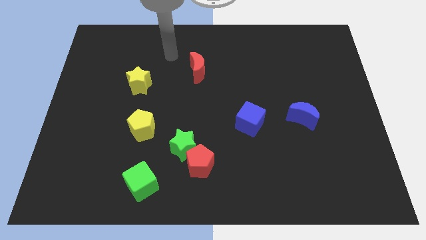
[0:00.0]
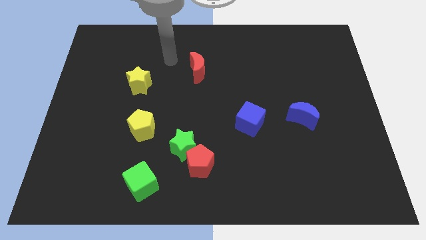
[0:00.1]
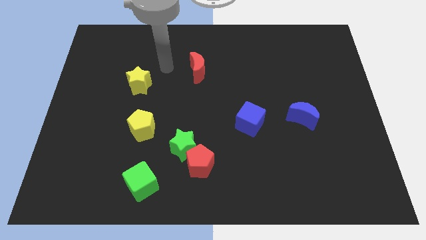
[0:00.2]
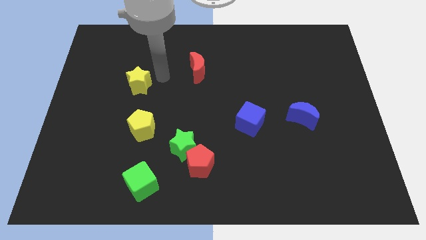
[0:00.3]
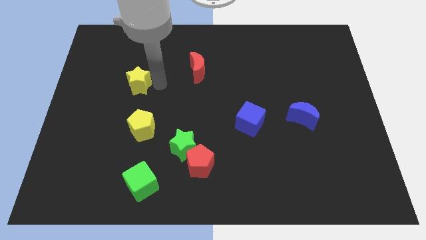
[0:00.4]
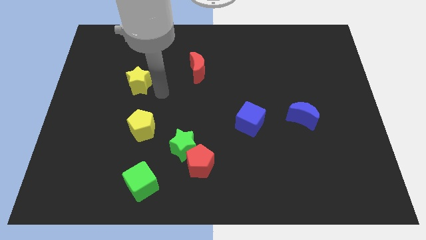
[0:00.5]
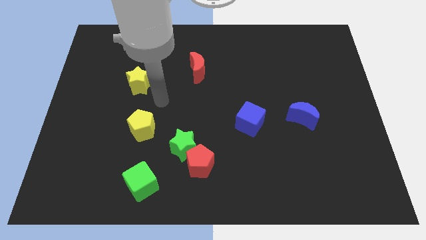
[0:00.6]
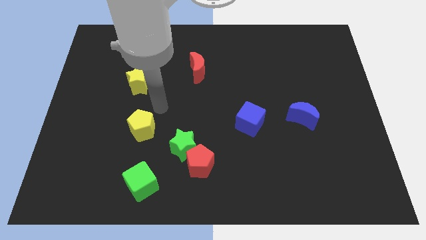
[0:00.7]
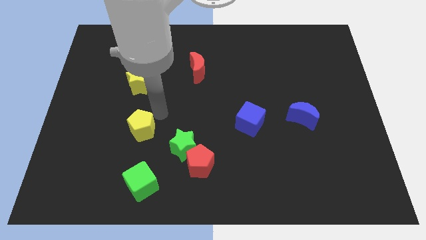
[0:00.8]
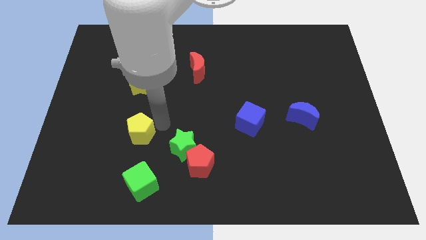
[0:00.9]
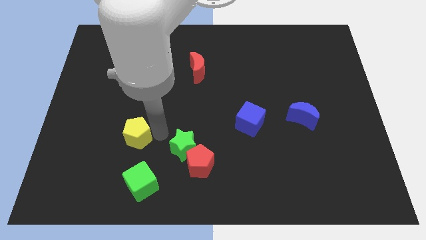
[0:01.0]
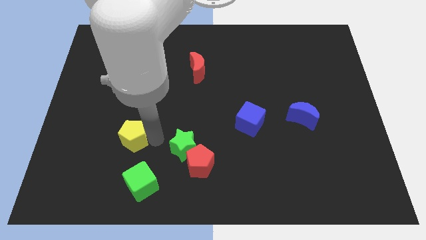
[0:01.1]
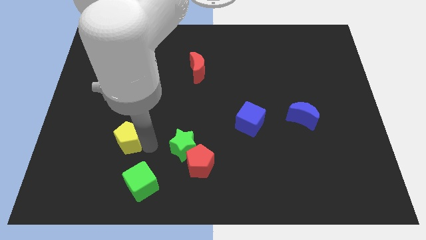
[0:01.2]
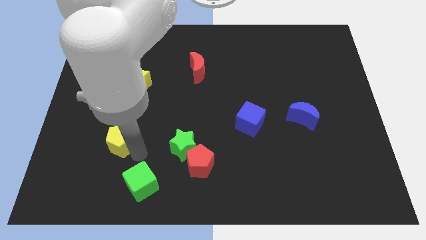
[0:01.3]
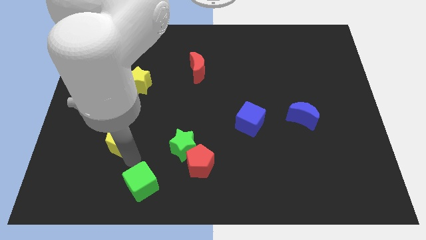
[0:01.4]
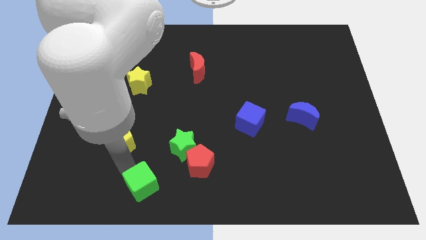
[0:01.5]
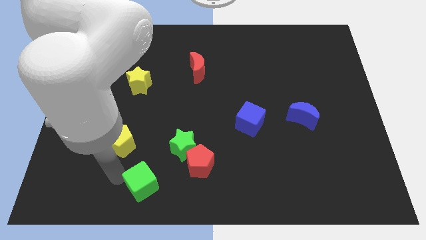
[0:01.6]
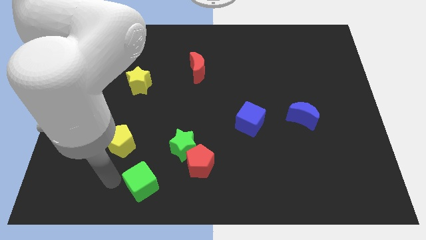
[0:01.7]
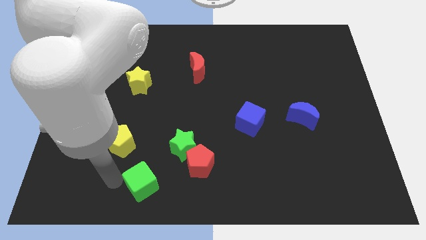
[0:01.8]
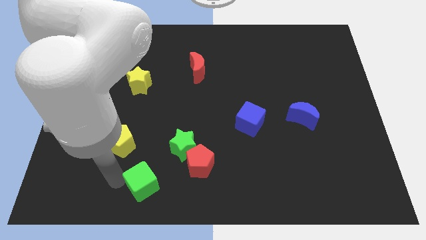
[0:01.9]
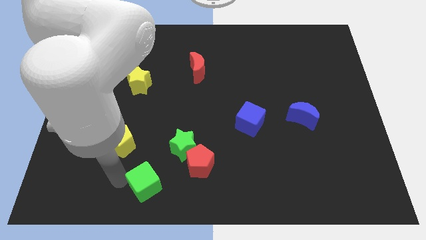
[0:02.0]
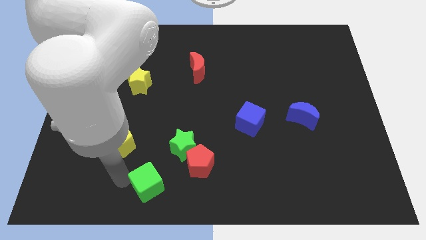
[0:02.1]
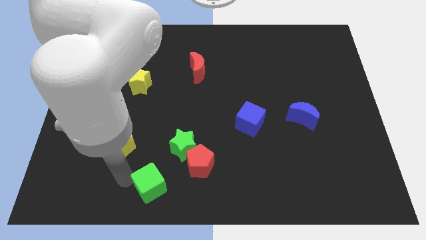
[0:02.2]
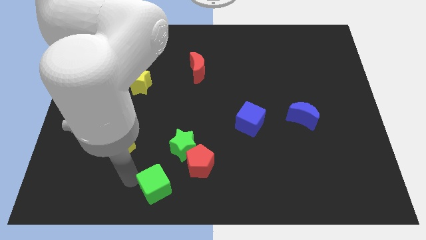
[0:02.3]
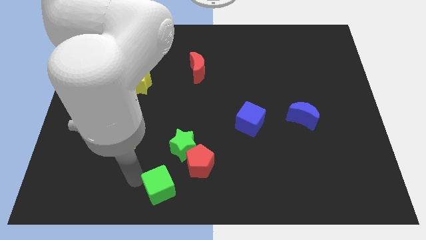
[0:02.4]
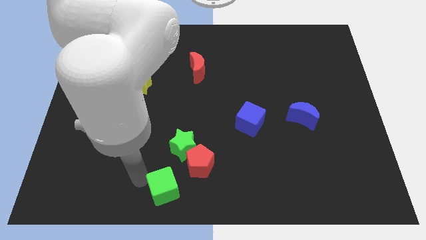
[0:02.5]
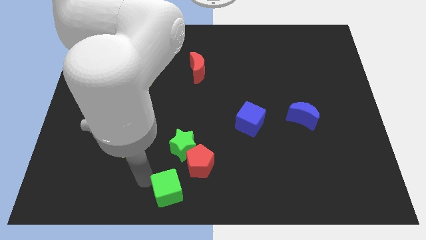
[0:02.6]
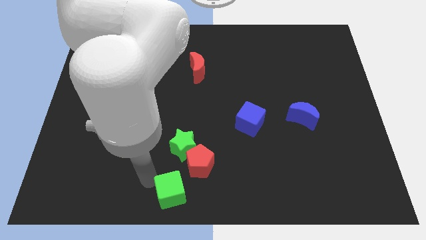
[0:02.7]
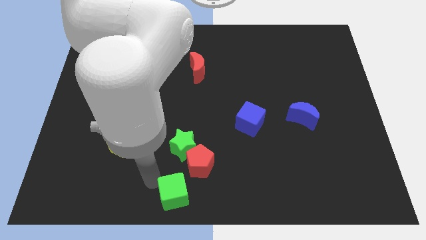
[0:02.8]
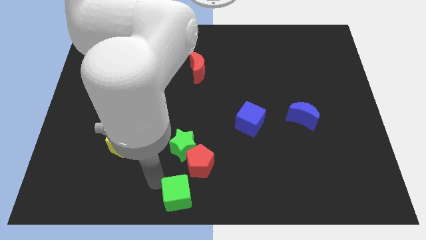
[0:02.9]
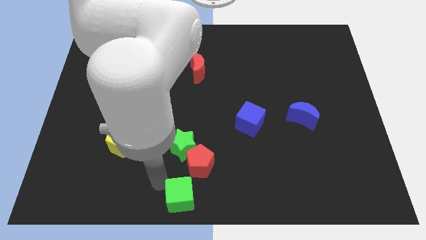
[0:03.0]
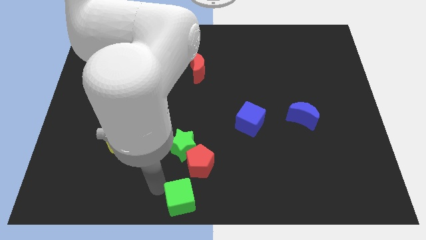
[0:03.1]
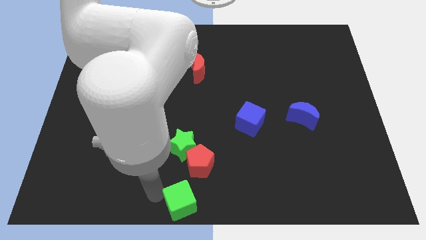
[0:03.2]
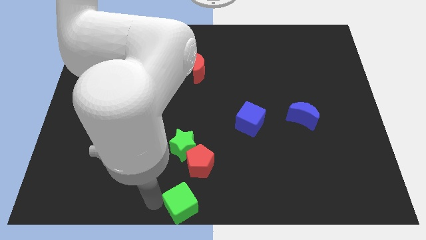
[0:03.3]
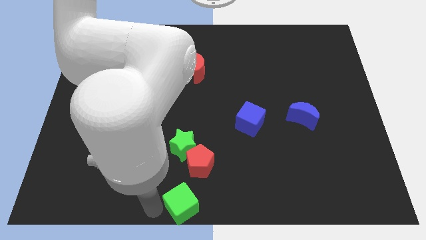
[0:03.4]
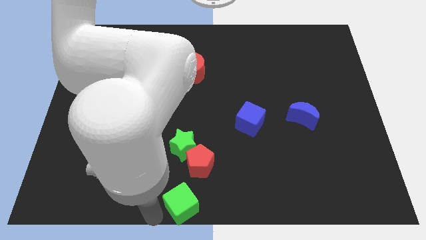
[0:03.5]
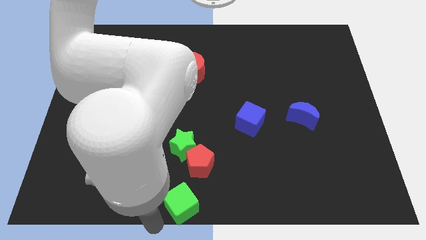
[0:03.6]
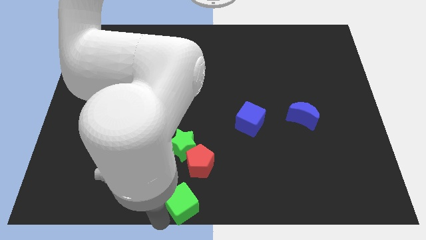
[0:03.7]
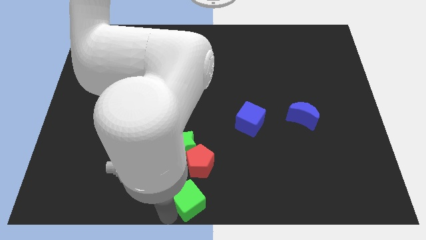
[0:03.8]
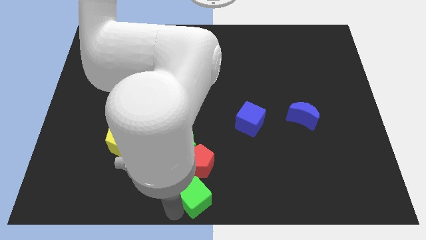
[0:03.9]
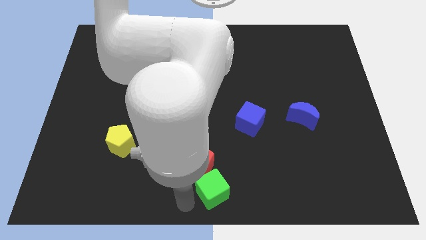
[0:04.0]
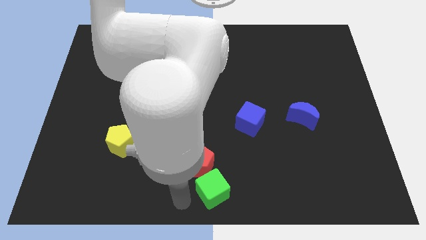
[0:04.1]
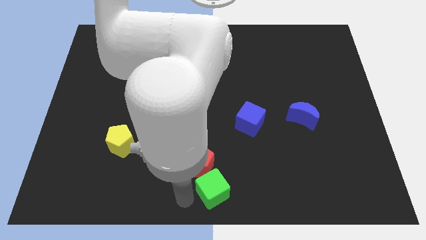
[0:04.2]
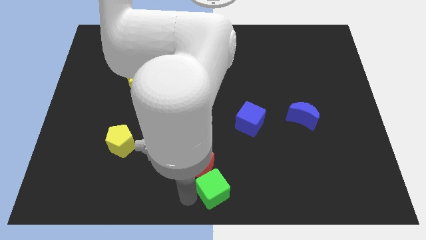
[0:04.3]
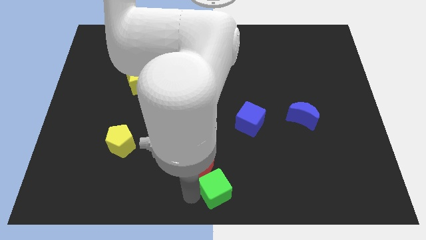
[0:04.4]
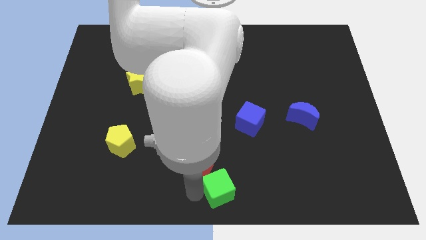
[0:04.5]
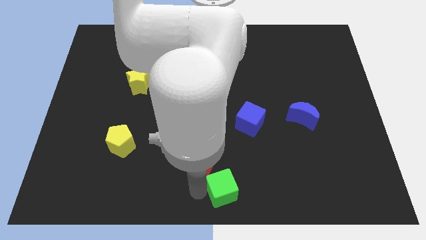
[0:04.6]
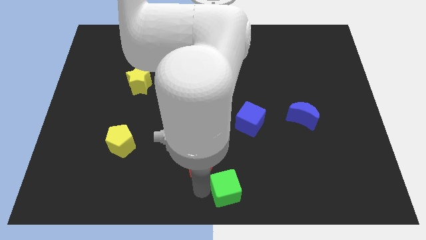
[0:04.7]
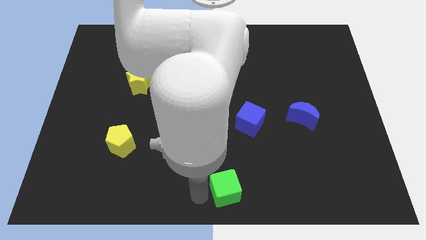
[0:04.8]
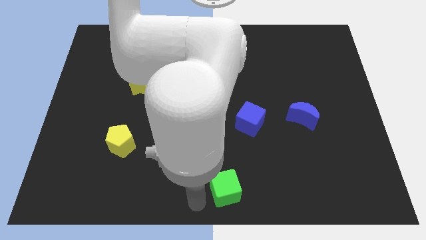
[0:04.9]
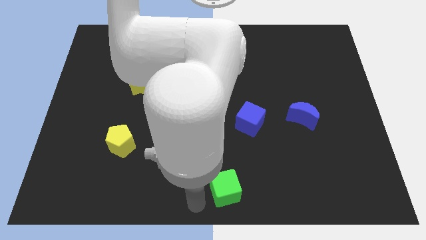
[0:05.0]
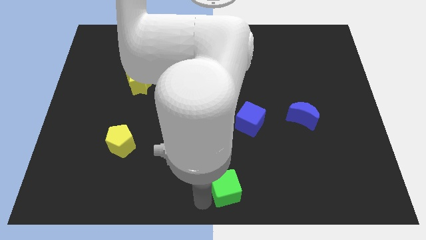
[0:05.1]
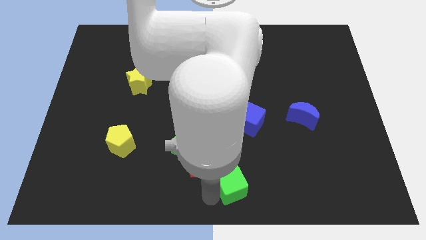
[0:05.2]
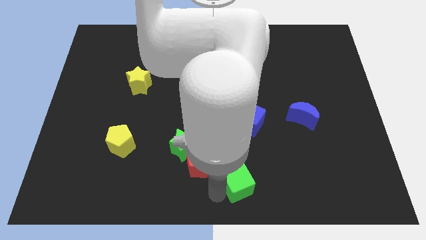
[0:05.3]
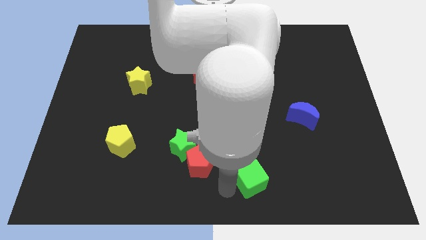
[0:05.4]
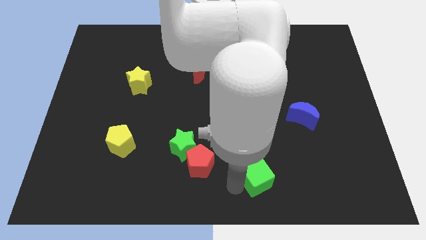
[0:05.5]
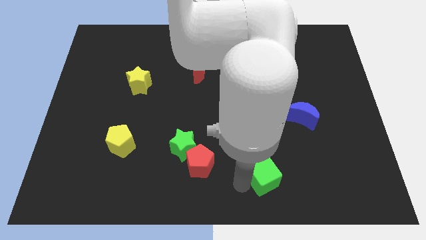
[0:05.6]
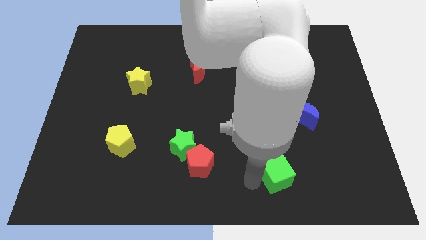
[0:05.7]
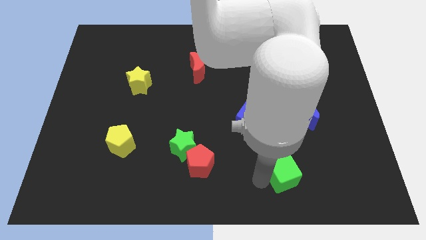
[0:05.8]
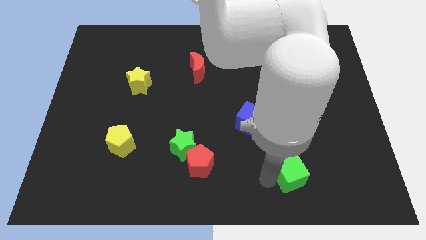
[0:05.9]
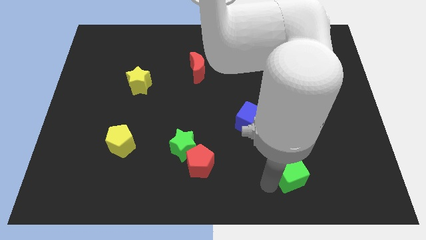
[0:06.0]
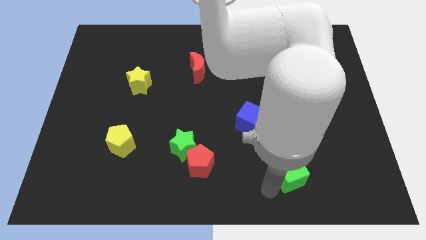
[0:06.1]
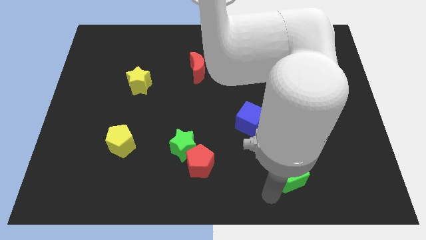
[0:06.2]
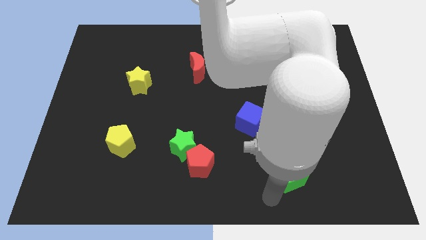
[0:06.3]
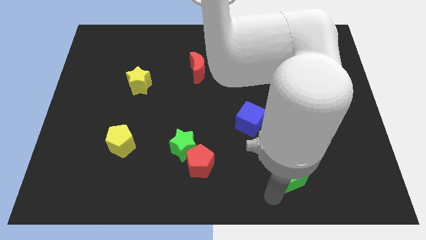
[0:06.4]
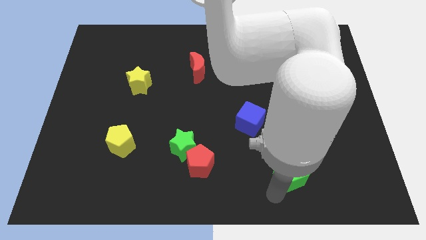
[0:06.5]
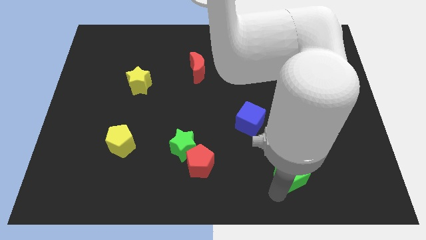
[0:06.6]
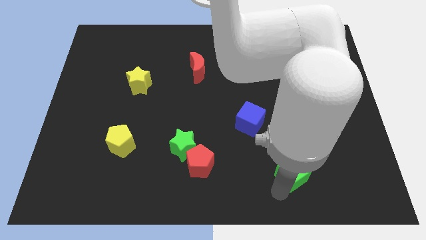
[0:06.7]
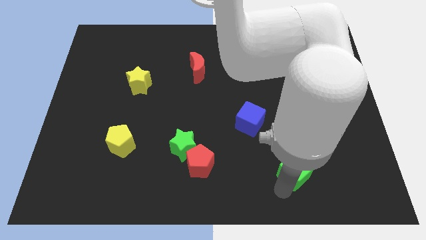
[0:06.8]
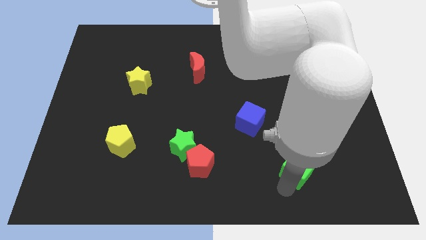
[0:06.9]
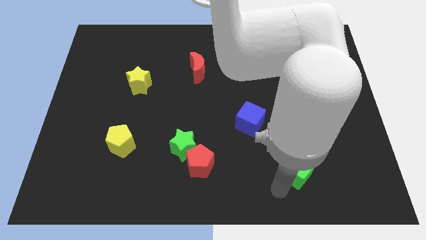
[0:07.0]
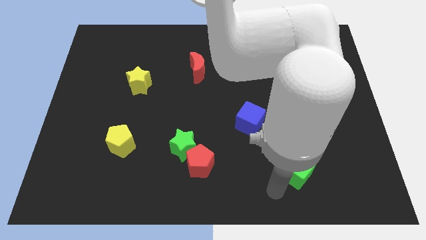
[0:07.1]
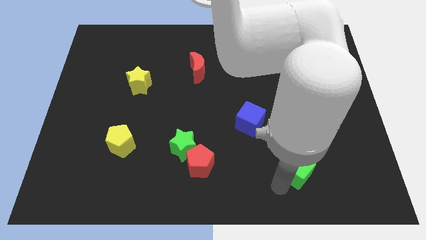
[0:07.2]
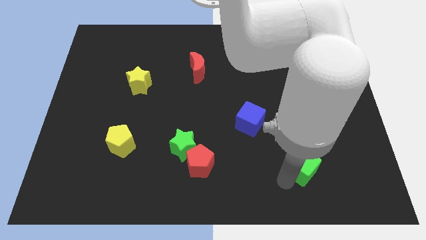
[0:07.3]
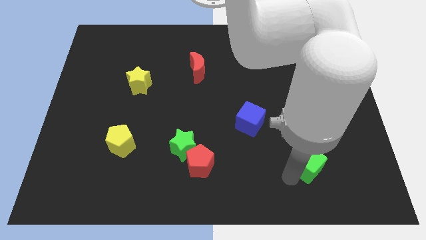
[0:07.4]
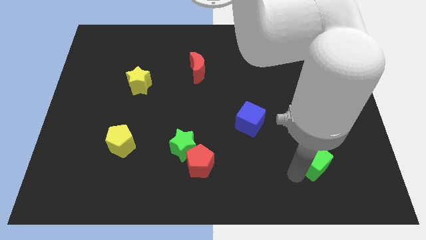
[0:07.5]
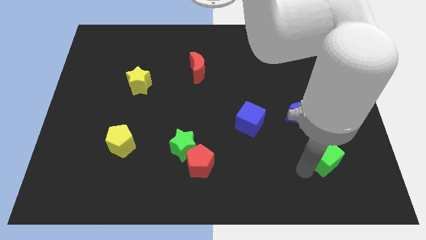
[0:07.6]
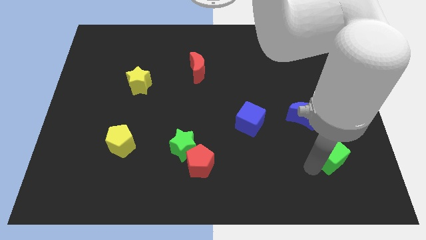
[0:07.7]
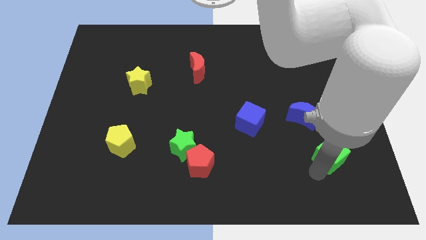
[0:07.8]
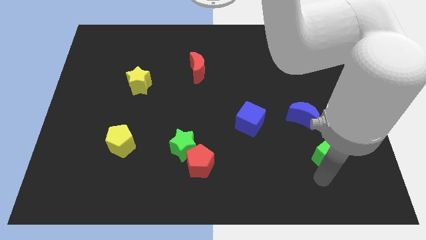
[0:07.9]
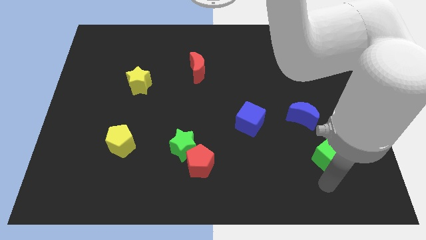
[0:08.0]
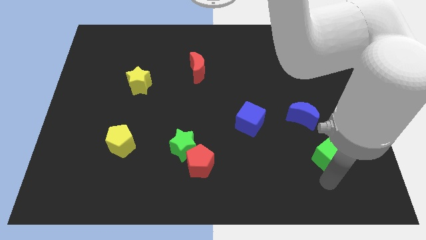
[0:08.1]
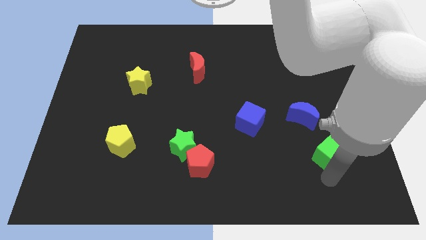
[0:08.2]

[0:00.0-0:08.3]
put the green cube to the bottom right of the blue moon
